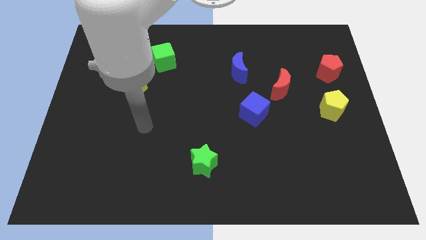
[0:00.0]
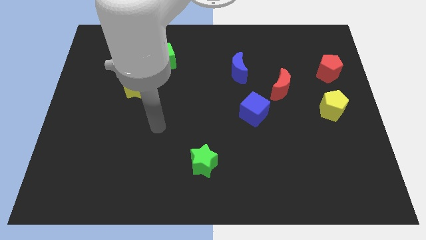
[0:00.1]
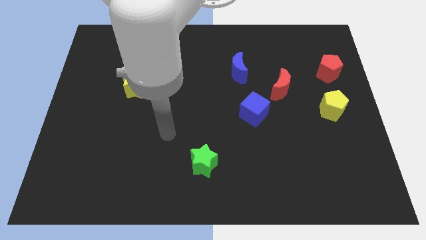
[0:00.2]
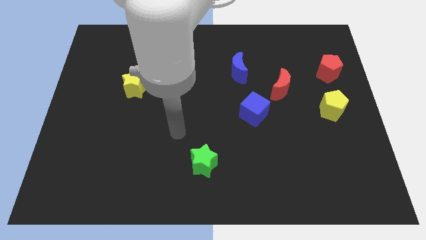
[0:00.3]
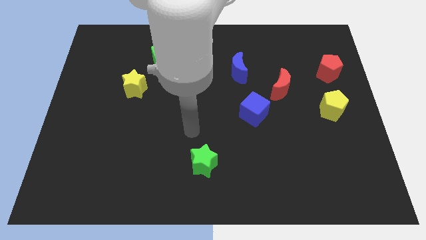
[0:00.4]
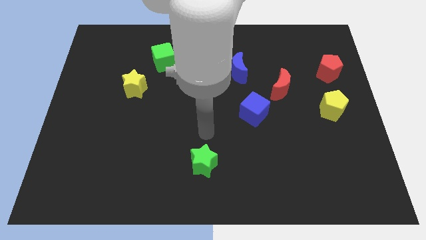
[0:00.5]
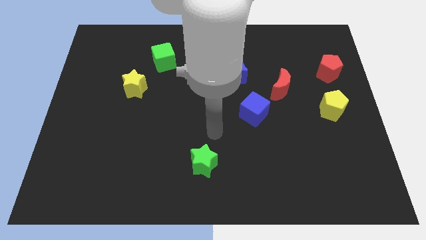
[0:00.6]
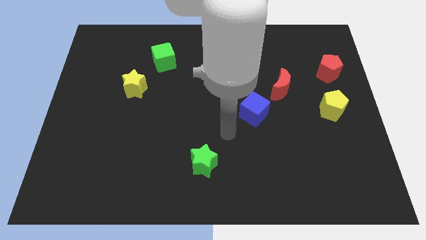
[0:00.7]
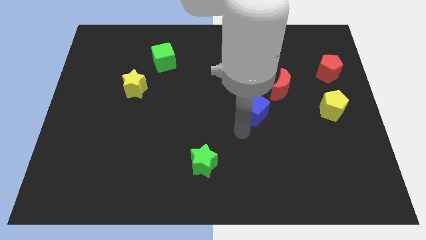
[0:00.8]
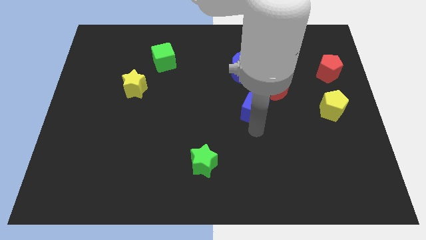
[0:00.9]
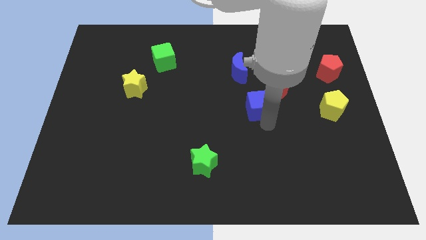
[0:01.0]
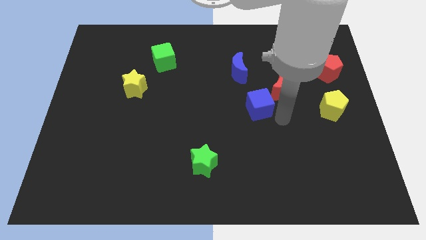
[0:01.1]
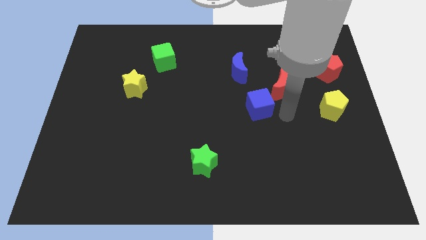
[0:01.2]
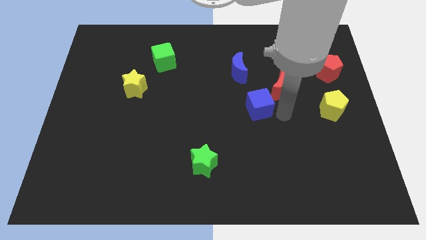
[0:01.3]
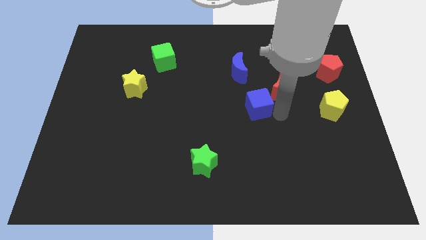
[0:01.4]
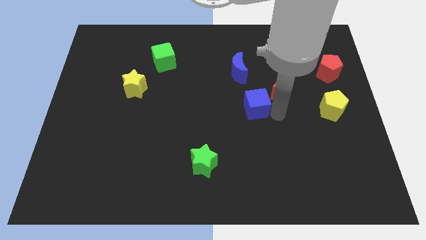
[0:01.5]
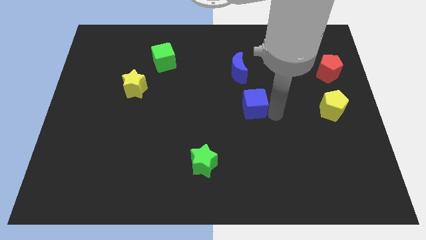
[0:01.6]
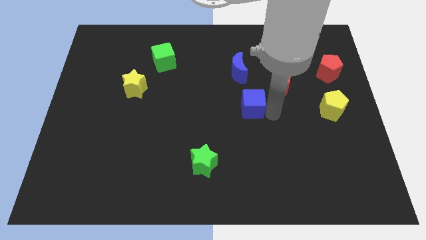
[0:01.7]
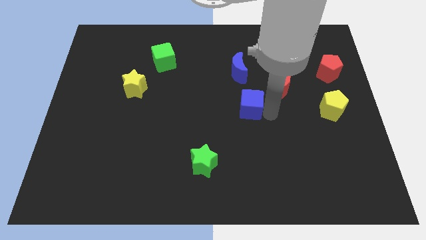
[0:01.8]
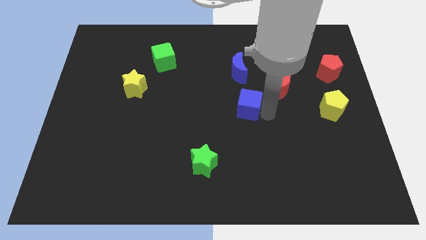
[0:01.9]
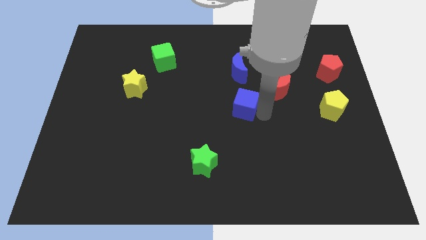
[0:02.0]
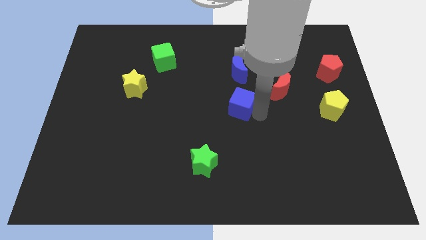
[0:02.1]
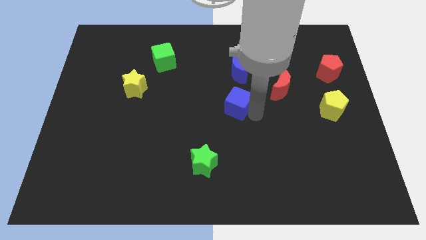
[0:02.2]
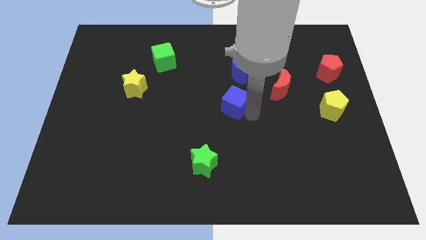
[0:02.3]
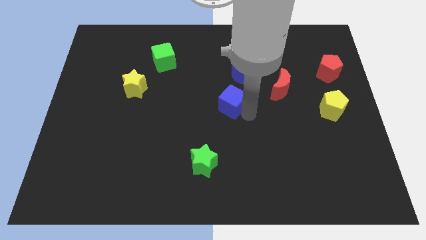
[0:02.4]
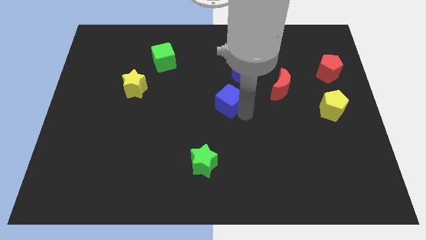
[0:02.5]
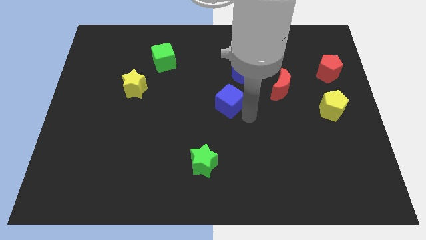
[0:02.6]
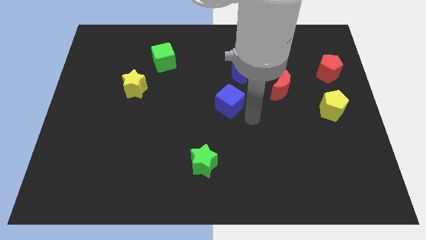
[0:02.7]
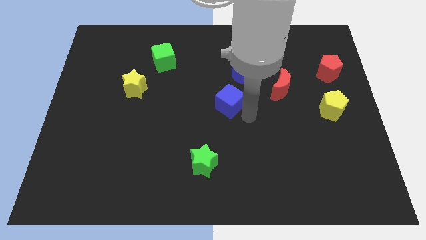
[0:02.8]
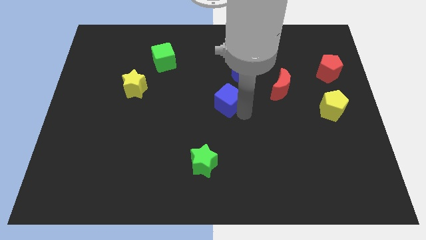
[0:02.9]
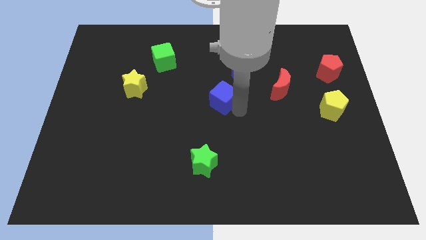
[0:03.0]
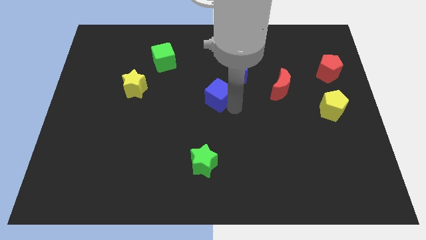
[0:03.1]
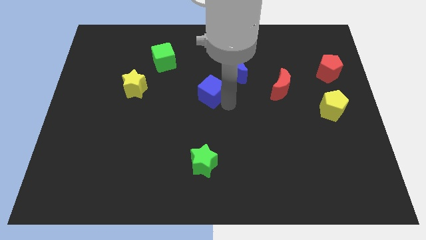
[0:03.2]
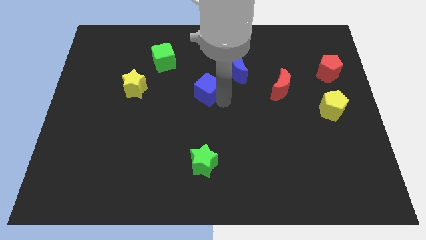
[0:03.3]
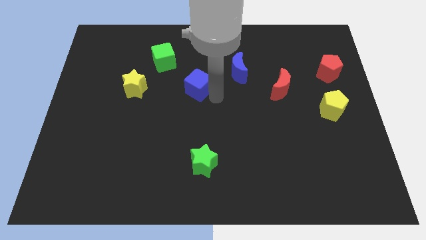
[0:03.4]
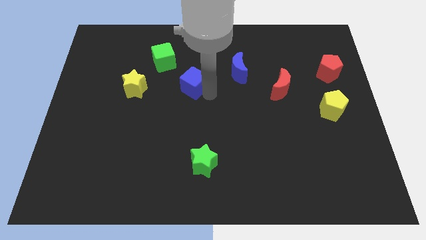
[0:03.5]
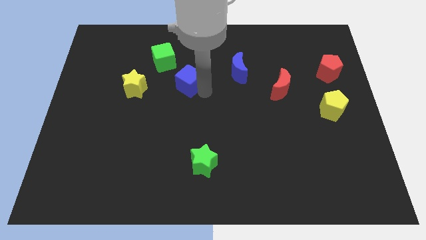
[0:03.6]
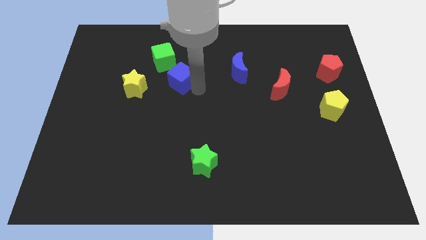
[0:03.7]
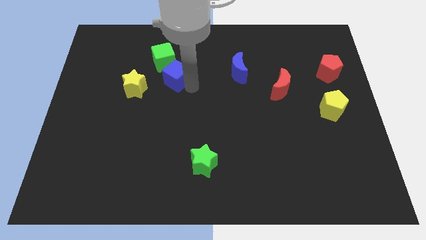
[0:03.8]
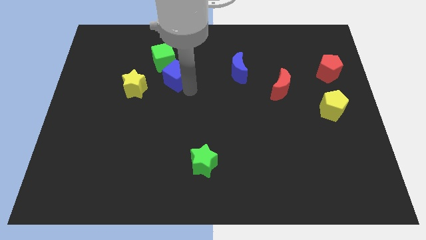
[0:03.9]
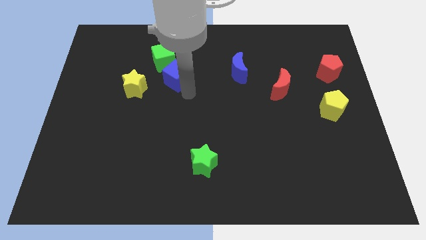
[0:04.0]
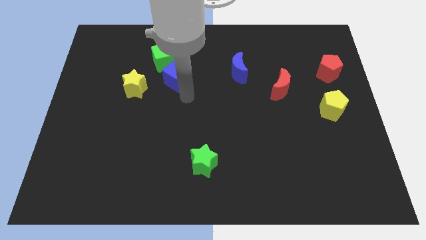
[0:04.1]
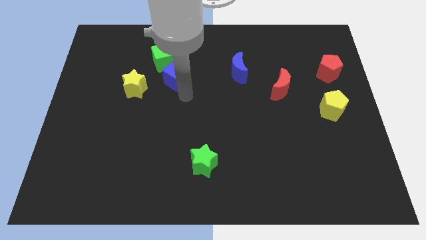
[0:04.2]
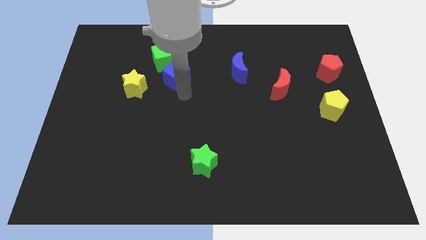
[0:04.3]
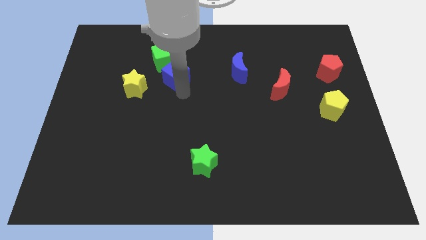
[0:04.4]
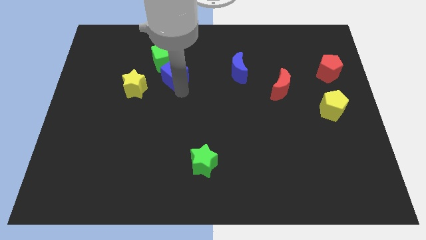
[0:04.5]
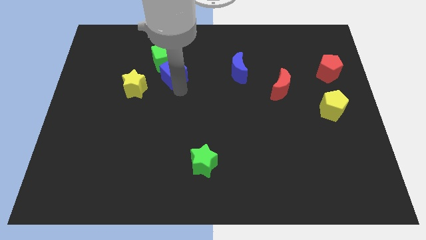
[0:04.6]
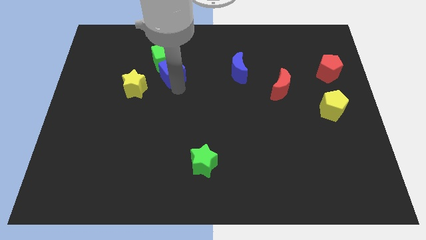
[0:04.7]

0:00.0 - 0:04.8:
push the blue cube close to the green cube

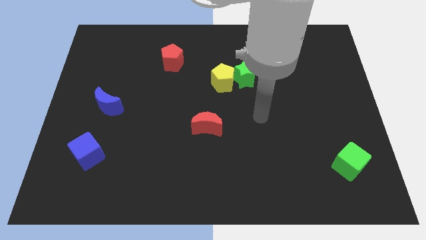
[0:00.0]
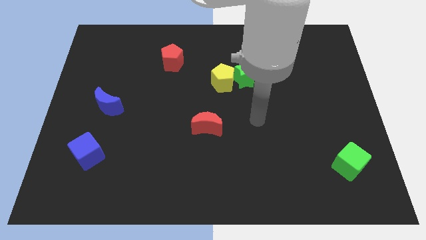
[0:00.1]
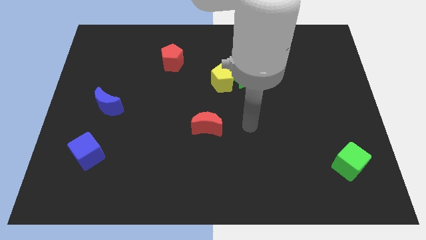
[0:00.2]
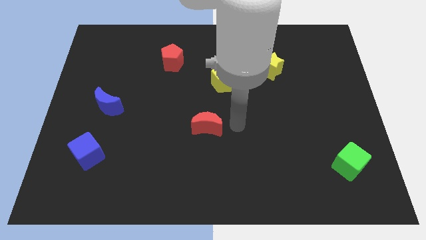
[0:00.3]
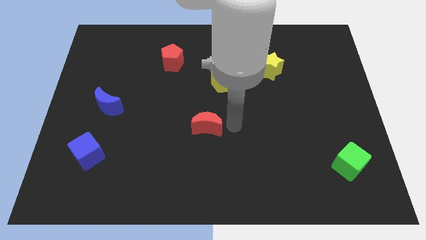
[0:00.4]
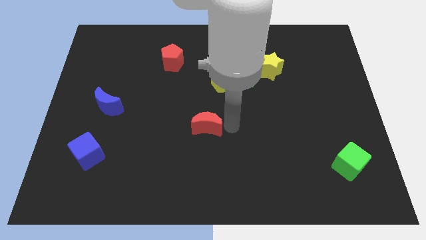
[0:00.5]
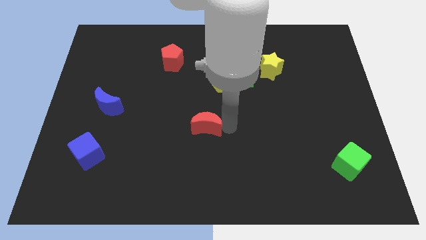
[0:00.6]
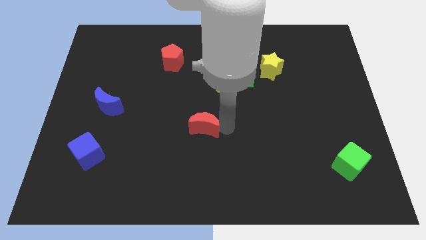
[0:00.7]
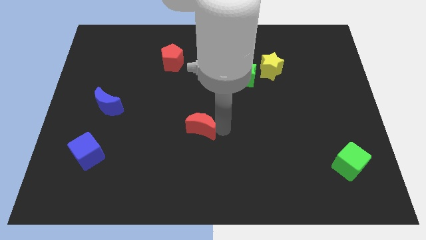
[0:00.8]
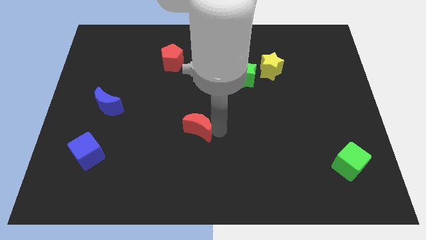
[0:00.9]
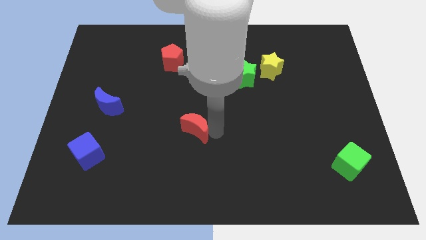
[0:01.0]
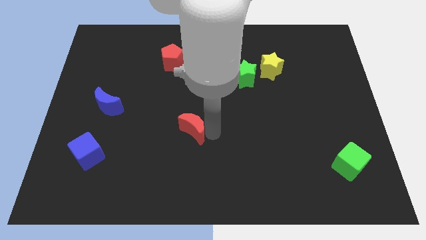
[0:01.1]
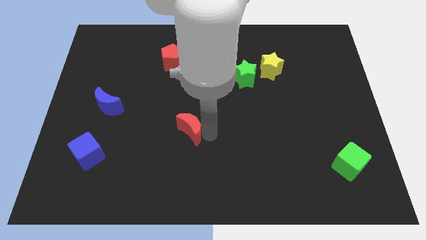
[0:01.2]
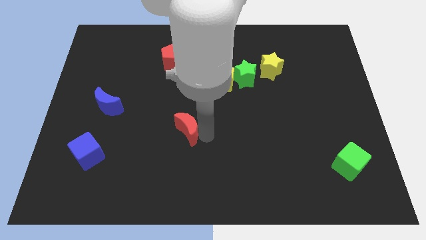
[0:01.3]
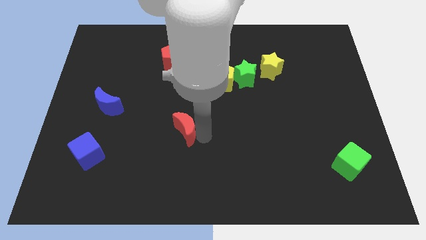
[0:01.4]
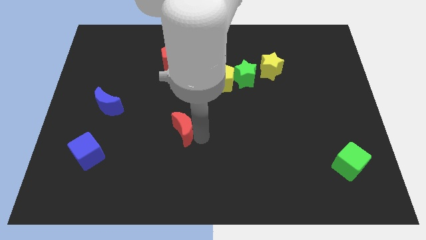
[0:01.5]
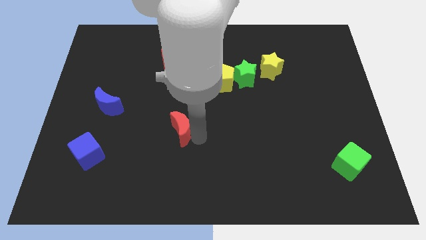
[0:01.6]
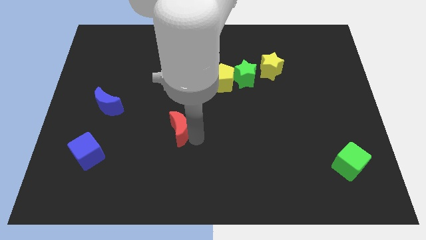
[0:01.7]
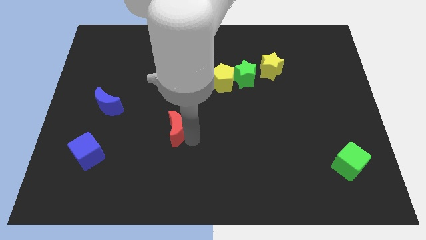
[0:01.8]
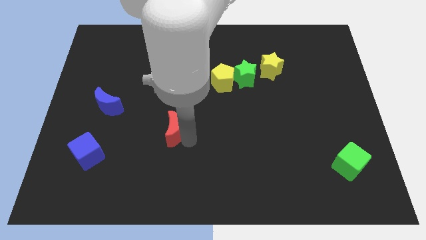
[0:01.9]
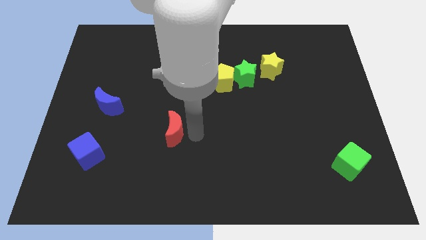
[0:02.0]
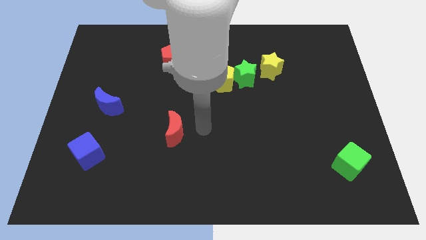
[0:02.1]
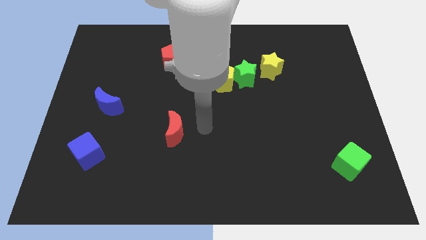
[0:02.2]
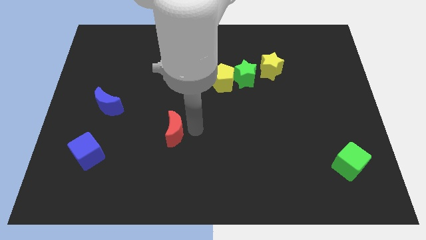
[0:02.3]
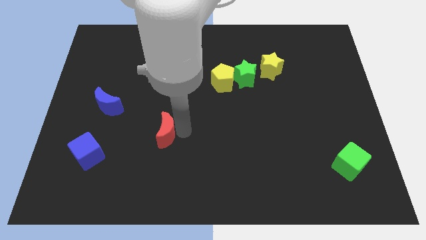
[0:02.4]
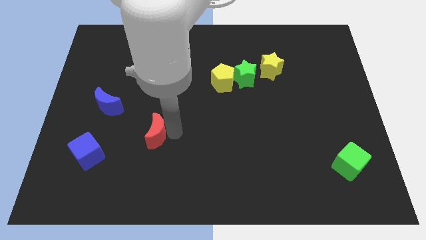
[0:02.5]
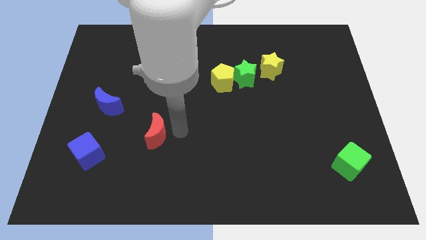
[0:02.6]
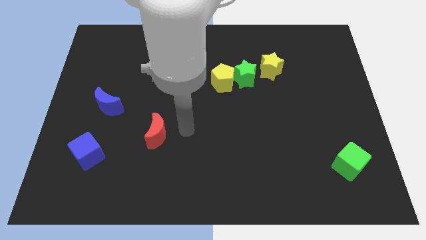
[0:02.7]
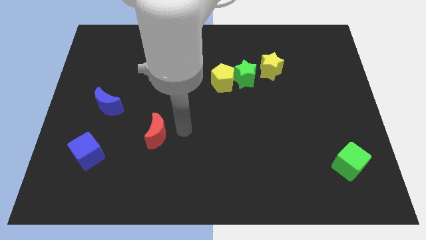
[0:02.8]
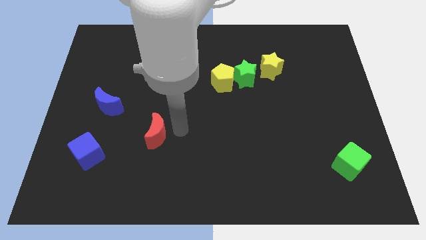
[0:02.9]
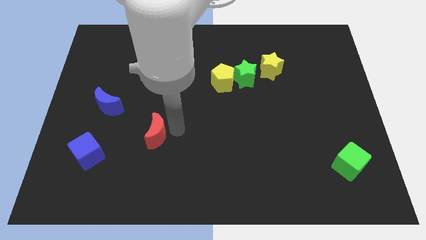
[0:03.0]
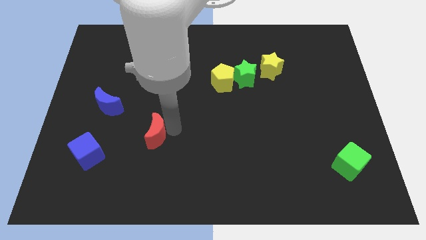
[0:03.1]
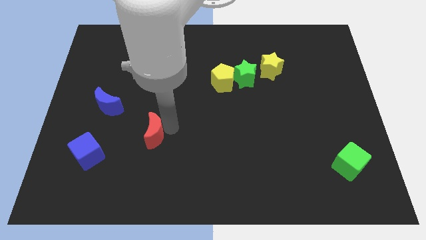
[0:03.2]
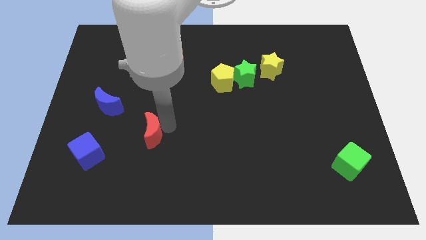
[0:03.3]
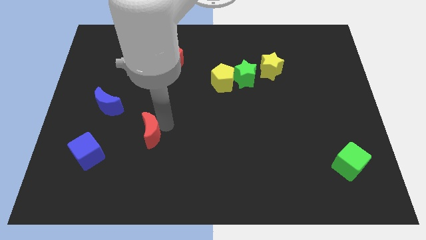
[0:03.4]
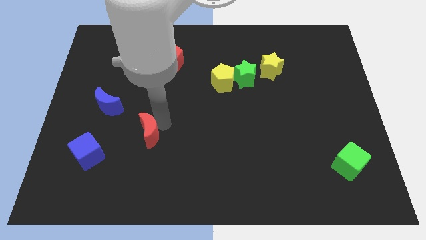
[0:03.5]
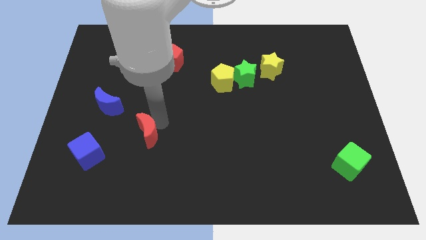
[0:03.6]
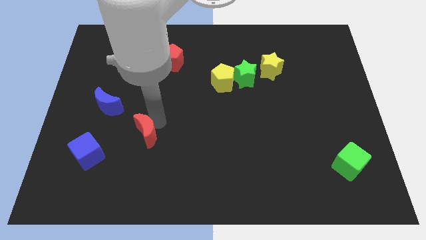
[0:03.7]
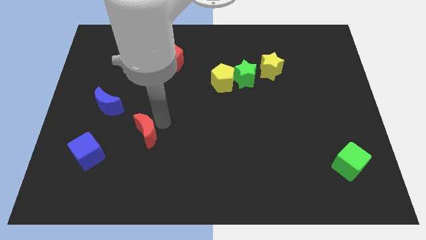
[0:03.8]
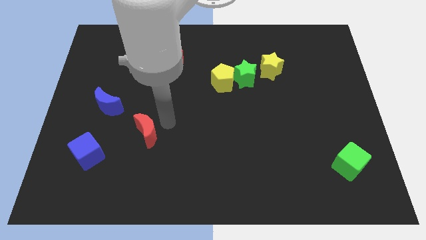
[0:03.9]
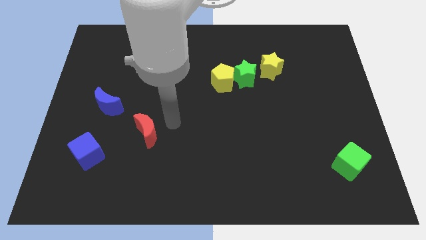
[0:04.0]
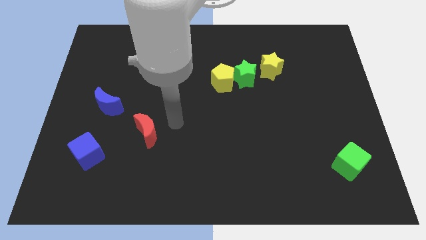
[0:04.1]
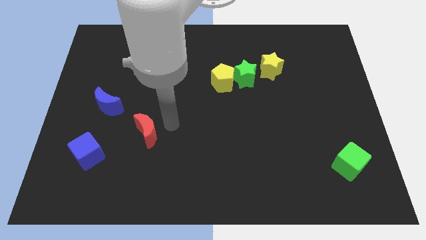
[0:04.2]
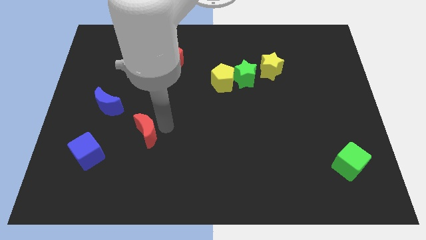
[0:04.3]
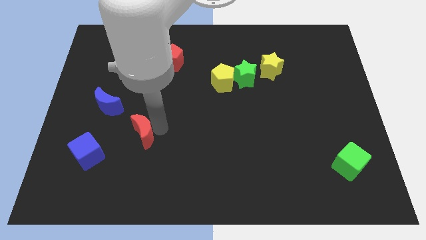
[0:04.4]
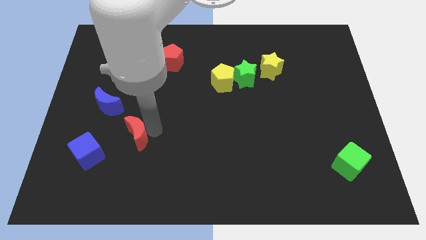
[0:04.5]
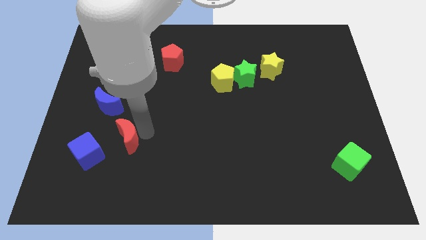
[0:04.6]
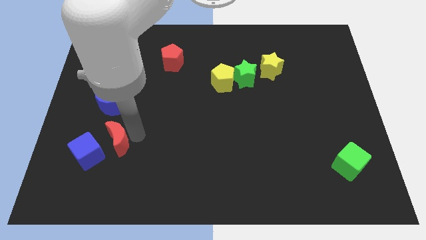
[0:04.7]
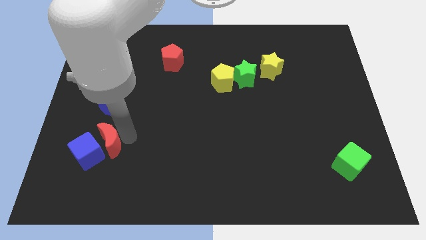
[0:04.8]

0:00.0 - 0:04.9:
push the red moon next to the blue cube
